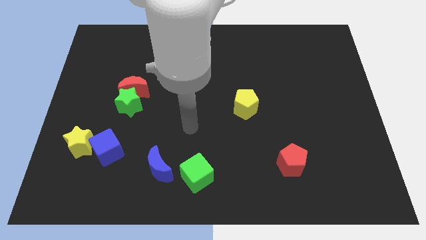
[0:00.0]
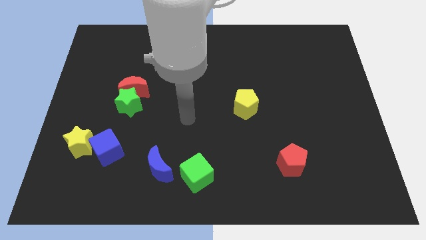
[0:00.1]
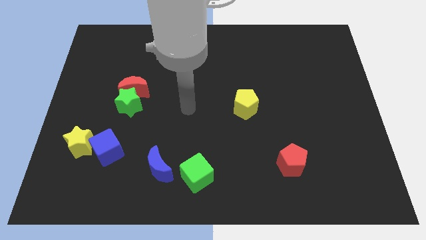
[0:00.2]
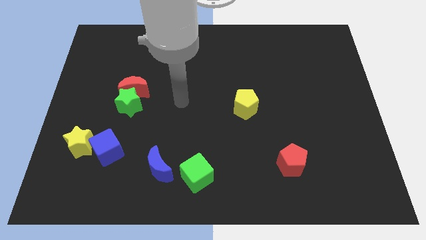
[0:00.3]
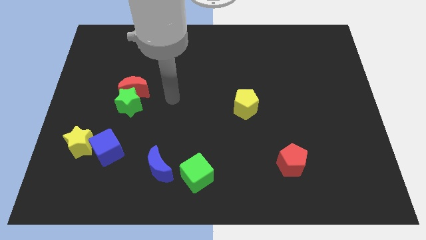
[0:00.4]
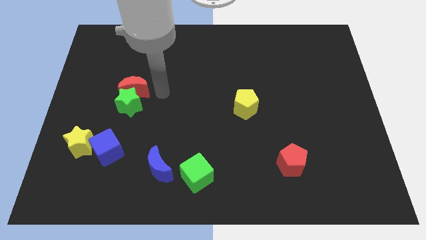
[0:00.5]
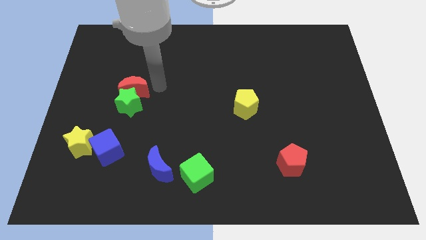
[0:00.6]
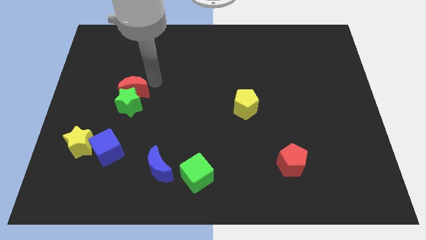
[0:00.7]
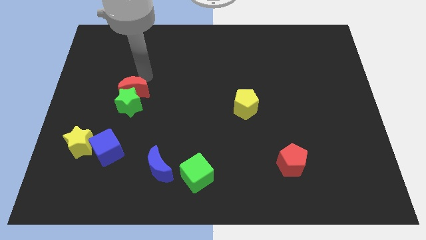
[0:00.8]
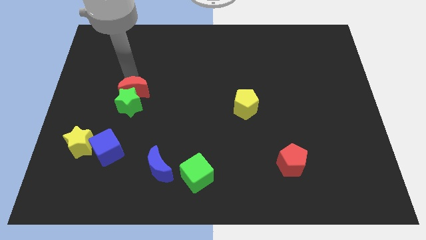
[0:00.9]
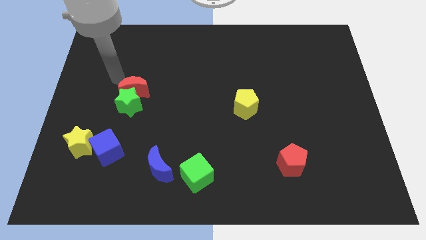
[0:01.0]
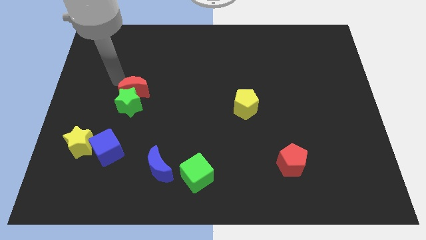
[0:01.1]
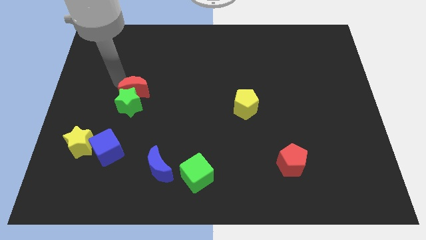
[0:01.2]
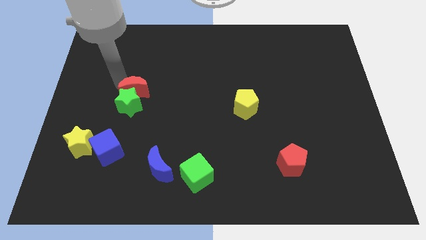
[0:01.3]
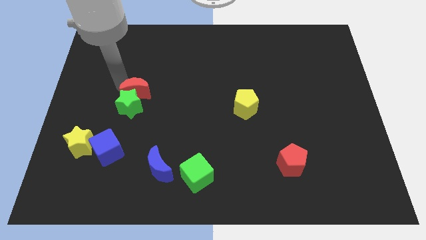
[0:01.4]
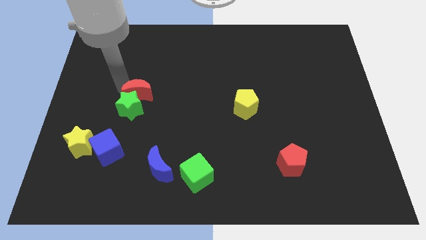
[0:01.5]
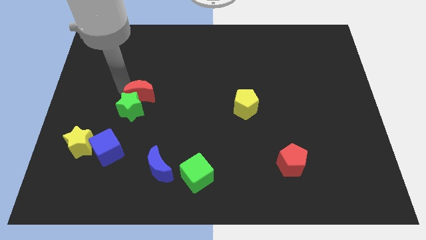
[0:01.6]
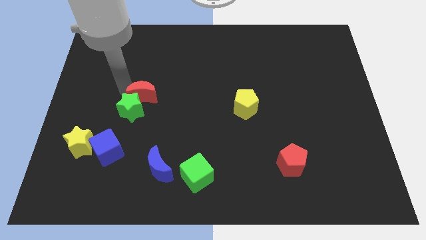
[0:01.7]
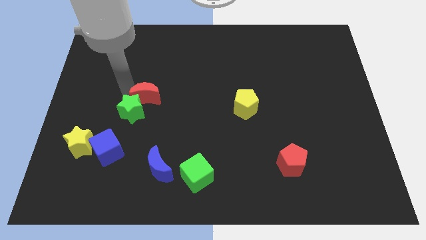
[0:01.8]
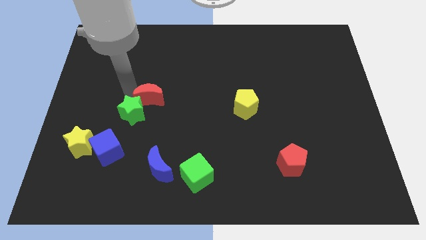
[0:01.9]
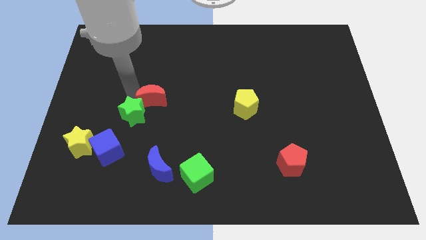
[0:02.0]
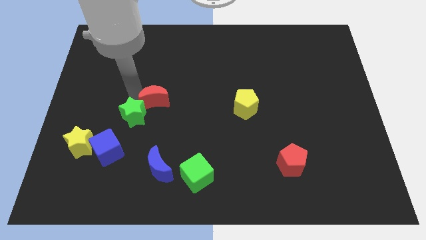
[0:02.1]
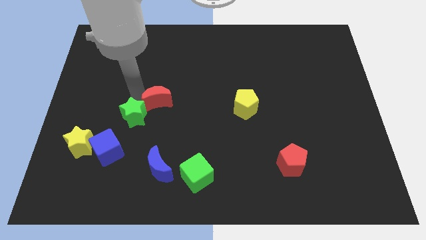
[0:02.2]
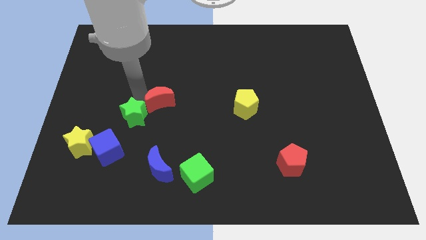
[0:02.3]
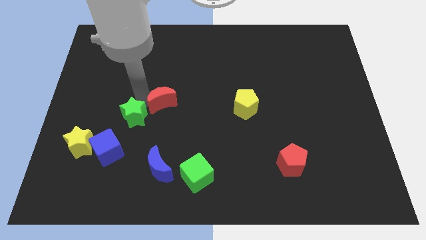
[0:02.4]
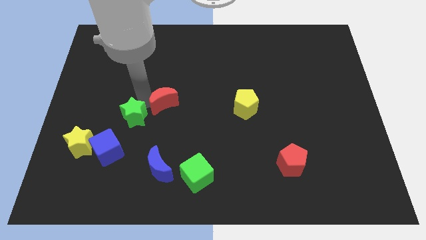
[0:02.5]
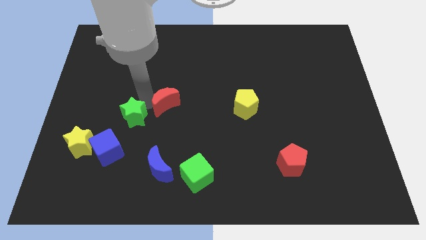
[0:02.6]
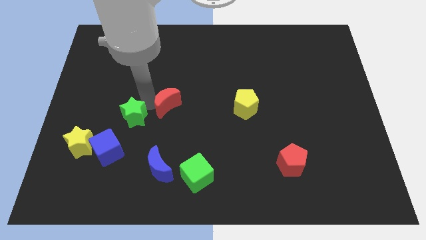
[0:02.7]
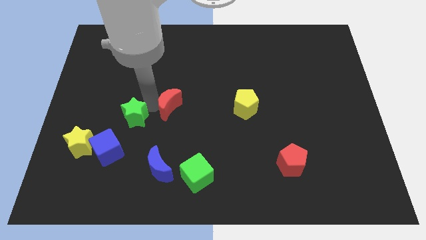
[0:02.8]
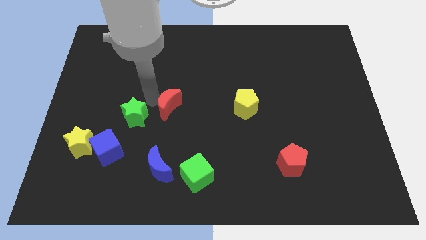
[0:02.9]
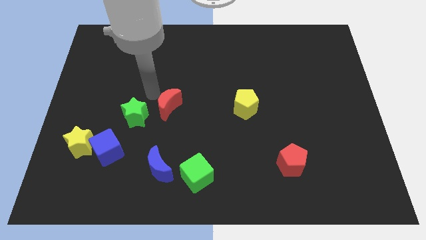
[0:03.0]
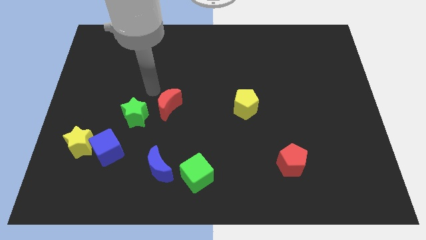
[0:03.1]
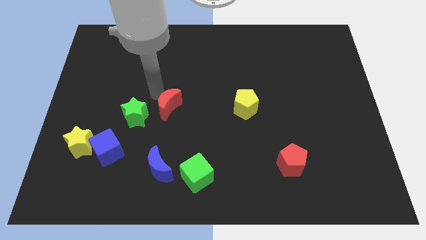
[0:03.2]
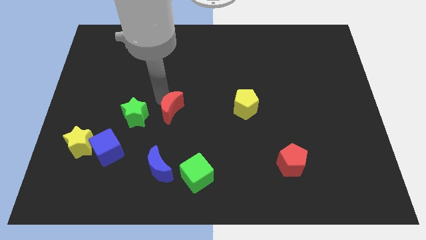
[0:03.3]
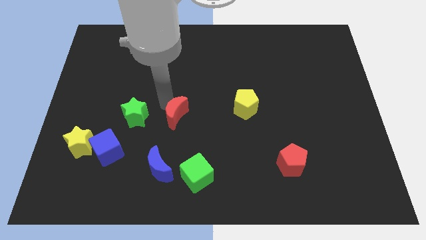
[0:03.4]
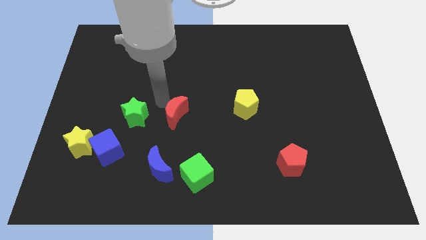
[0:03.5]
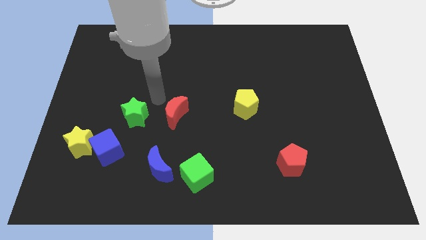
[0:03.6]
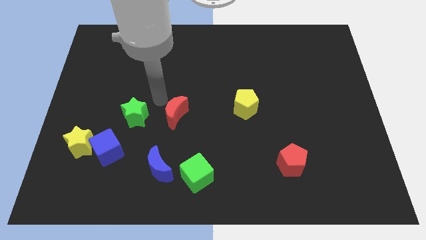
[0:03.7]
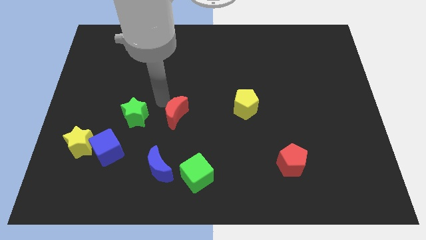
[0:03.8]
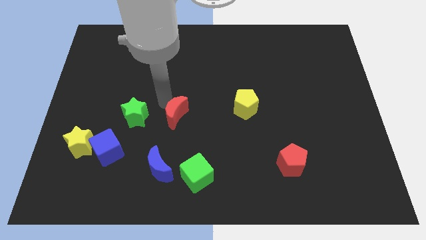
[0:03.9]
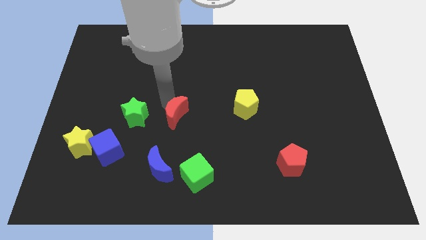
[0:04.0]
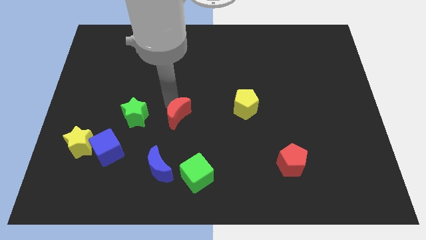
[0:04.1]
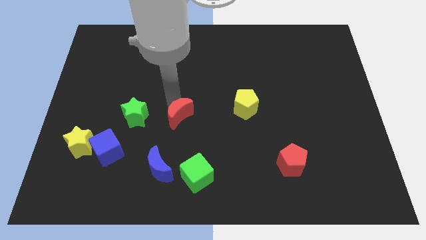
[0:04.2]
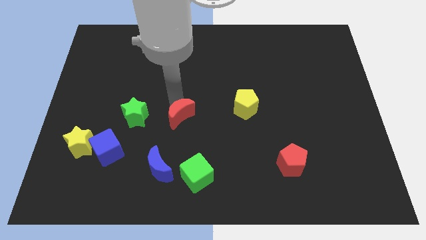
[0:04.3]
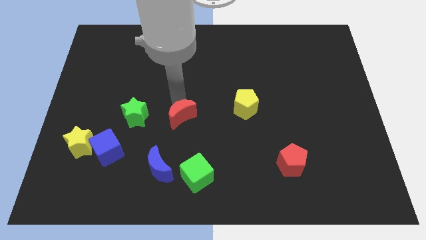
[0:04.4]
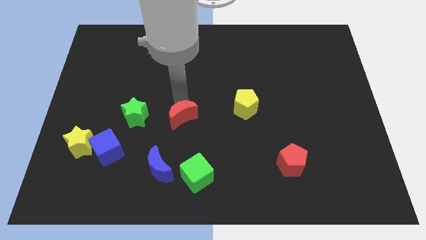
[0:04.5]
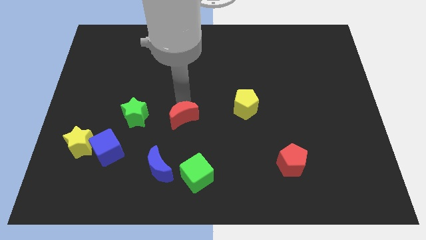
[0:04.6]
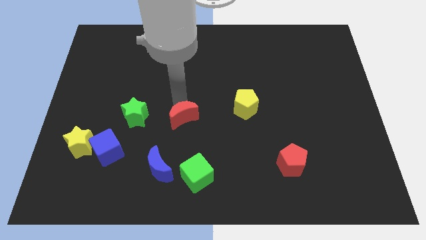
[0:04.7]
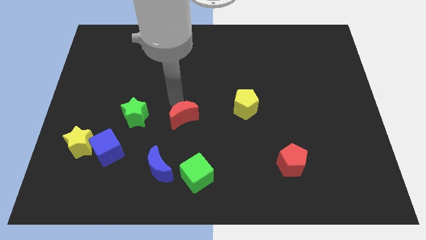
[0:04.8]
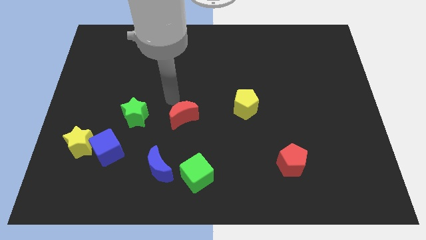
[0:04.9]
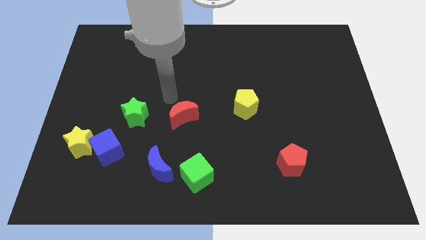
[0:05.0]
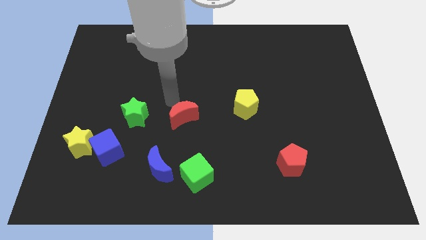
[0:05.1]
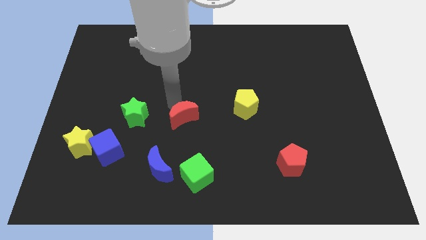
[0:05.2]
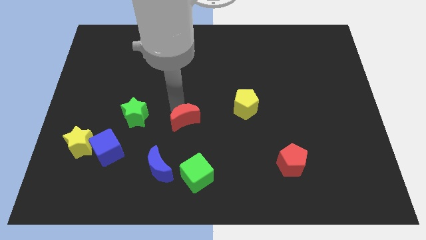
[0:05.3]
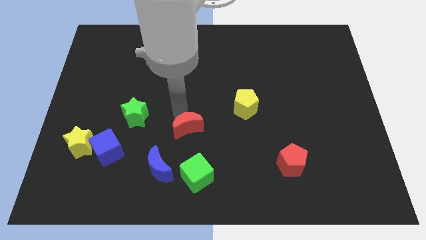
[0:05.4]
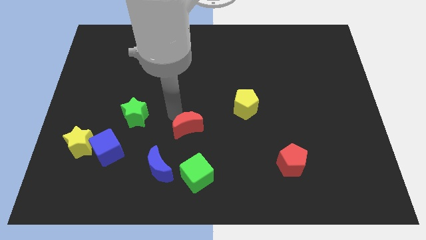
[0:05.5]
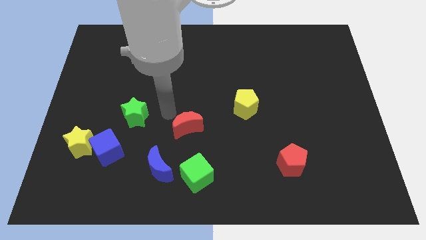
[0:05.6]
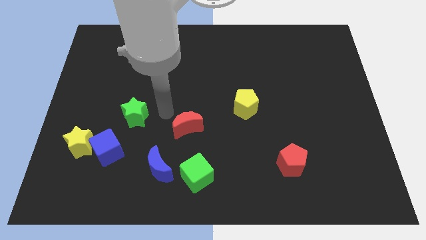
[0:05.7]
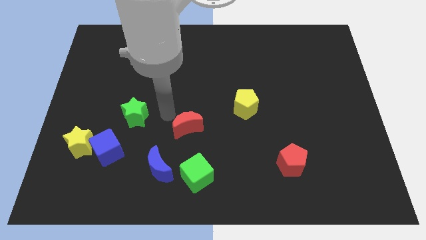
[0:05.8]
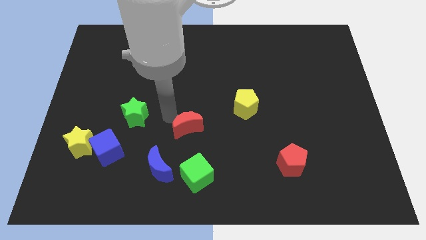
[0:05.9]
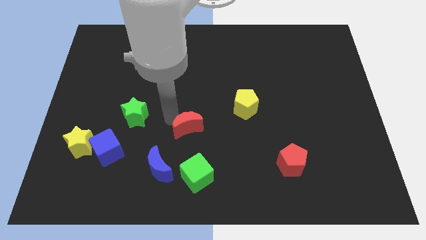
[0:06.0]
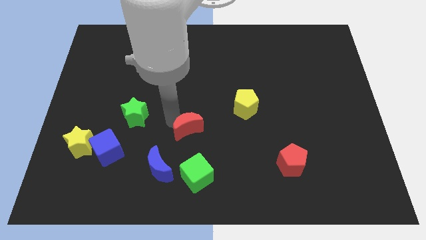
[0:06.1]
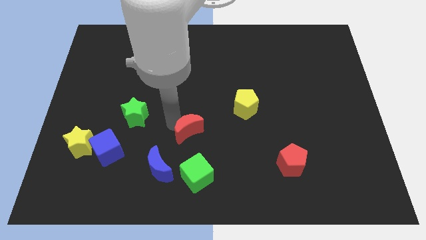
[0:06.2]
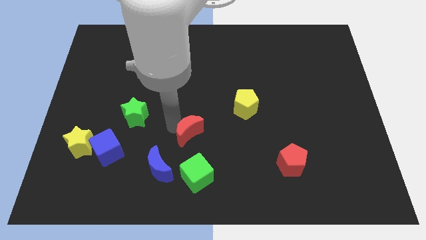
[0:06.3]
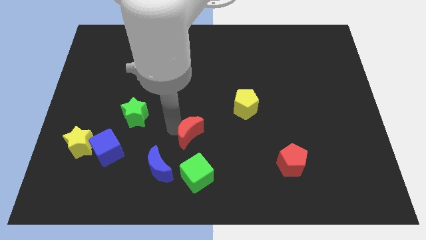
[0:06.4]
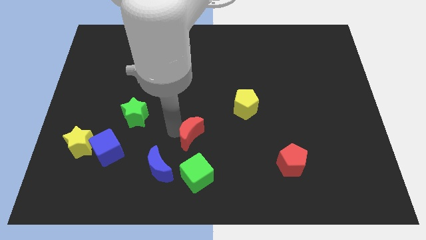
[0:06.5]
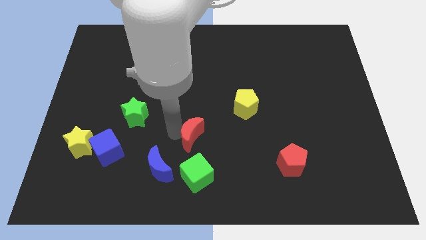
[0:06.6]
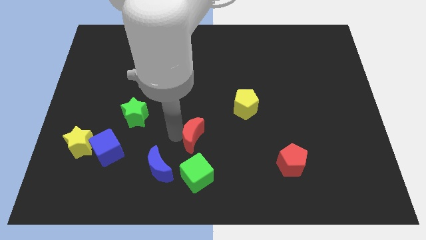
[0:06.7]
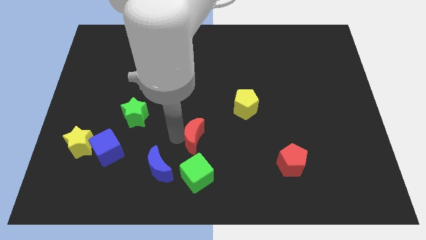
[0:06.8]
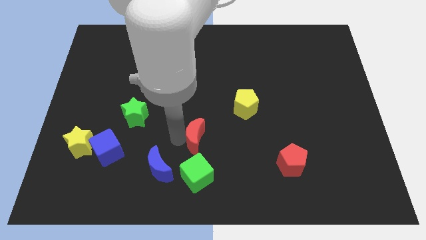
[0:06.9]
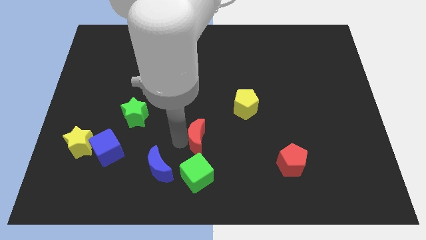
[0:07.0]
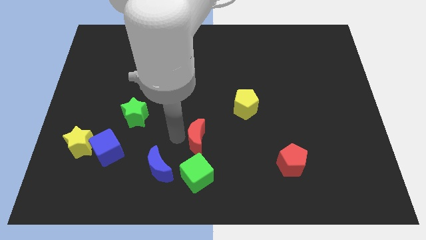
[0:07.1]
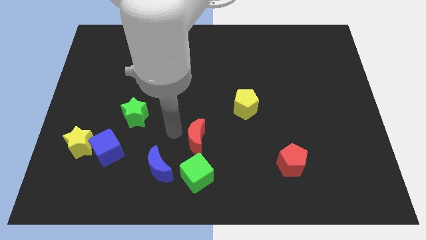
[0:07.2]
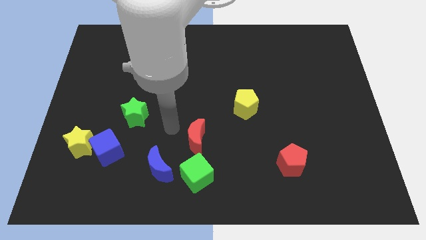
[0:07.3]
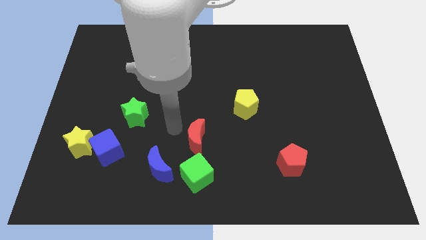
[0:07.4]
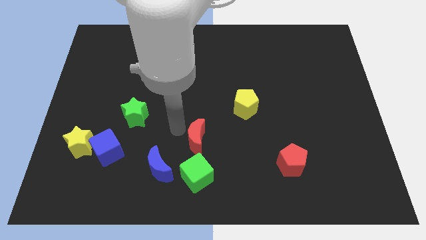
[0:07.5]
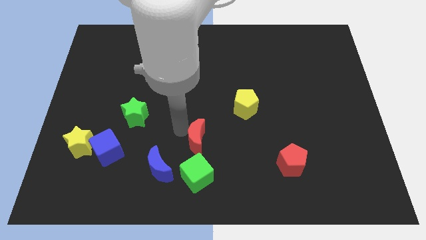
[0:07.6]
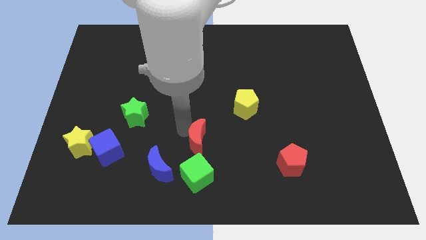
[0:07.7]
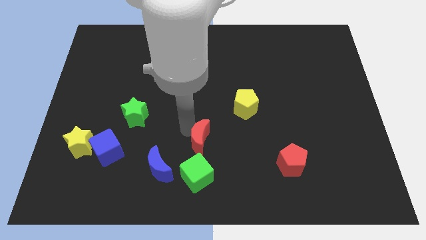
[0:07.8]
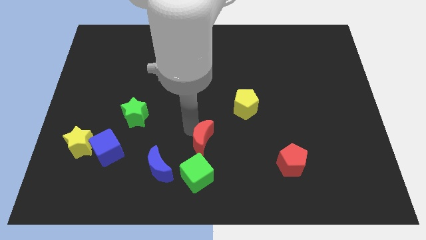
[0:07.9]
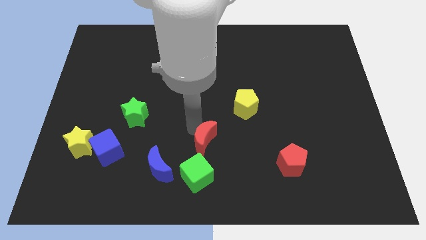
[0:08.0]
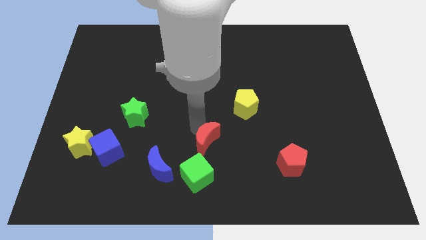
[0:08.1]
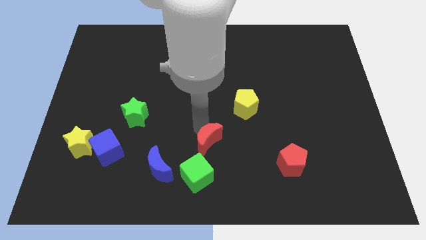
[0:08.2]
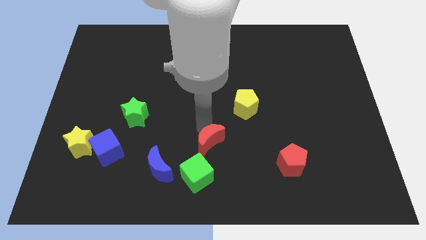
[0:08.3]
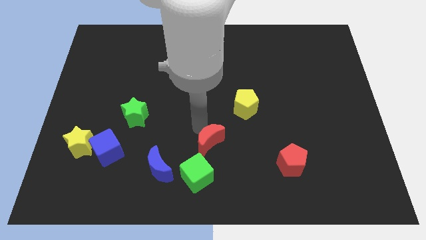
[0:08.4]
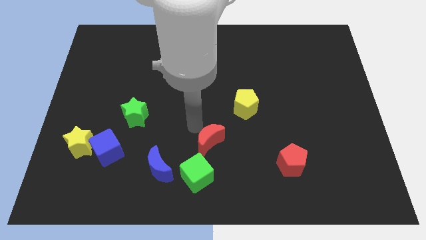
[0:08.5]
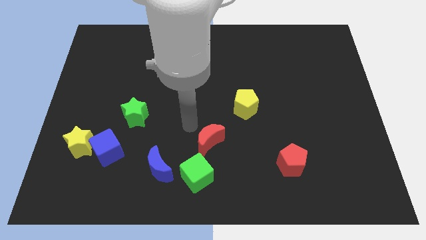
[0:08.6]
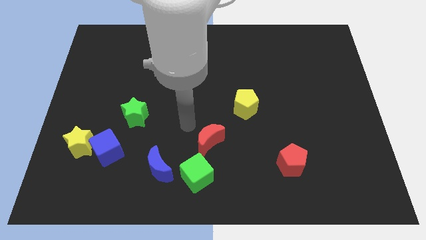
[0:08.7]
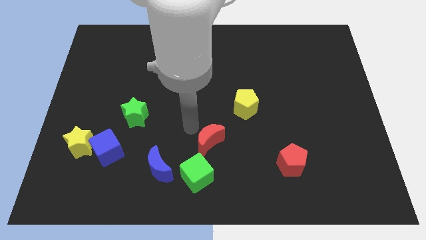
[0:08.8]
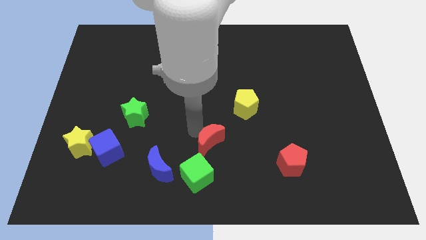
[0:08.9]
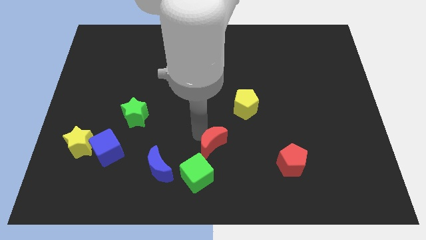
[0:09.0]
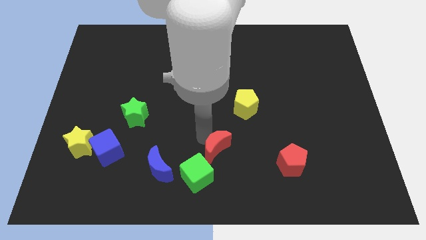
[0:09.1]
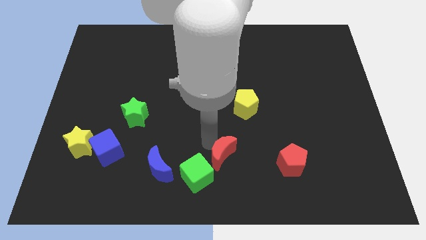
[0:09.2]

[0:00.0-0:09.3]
put the red moon left of the red pentagon
